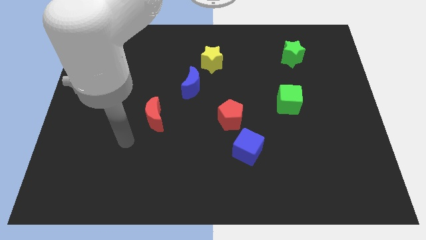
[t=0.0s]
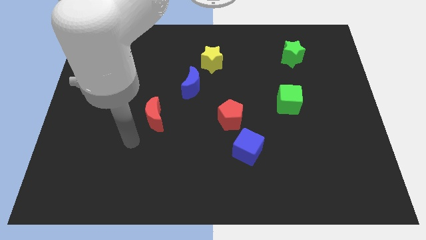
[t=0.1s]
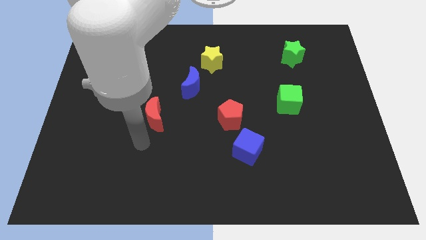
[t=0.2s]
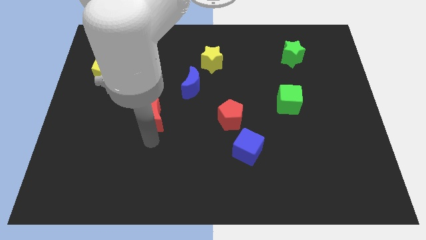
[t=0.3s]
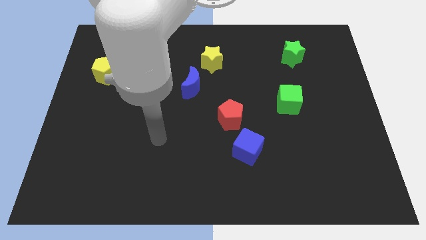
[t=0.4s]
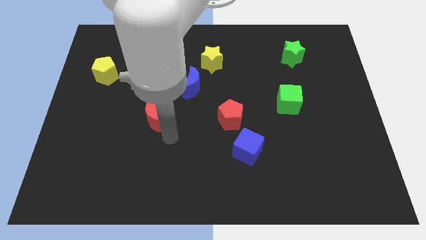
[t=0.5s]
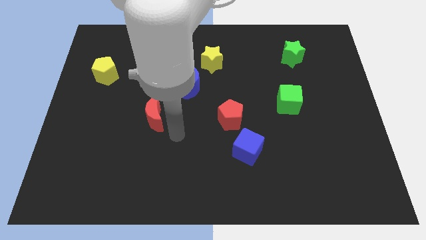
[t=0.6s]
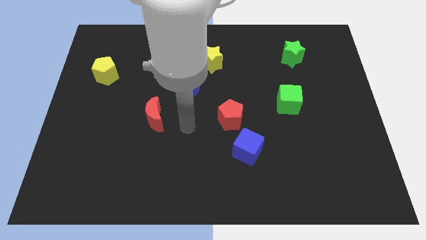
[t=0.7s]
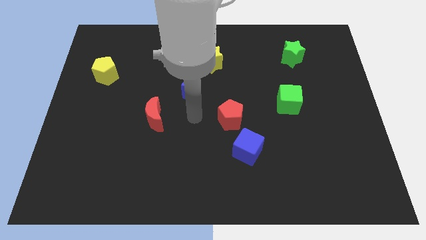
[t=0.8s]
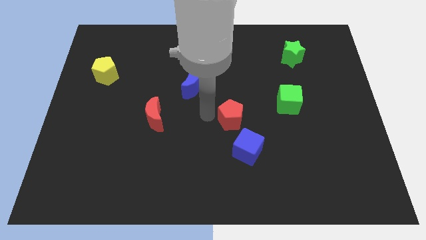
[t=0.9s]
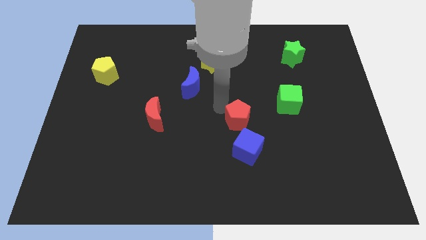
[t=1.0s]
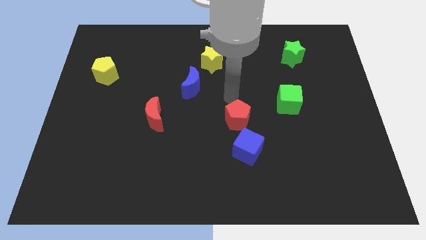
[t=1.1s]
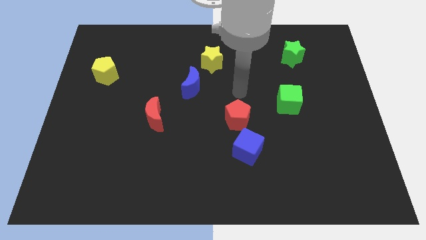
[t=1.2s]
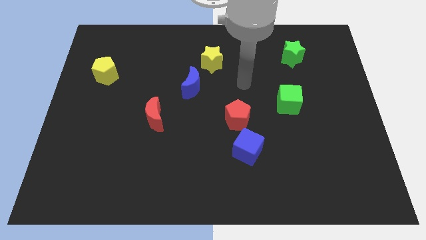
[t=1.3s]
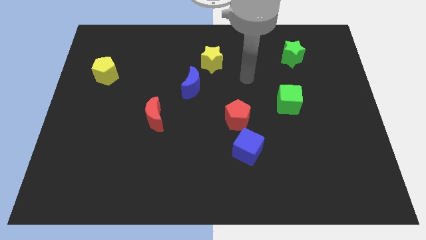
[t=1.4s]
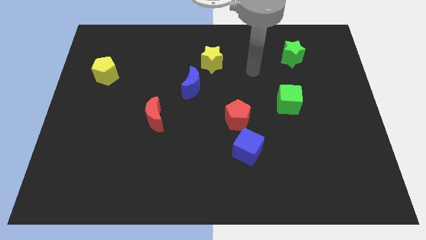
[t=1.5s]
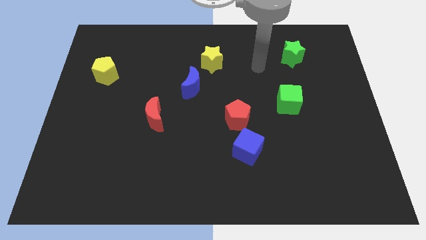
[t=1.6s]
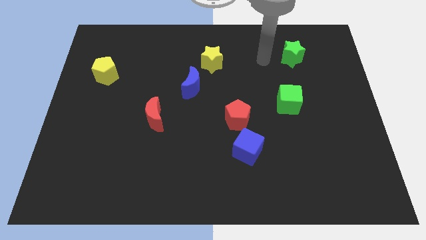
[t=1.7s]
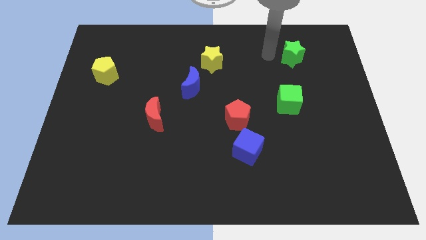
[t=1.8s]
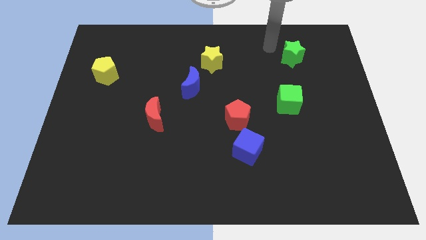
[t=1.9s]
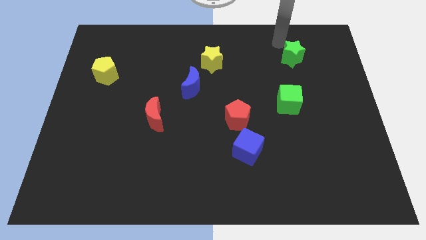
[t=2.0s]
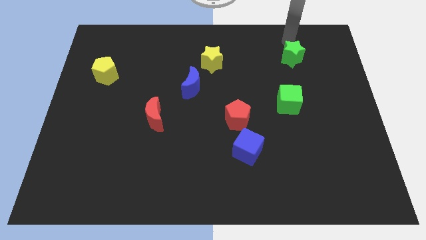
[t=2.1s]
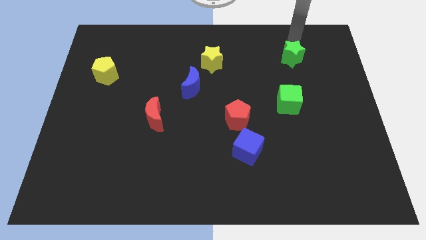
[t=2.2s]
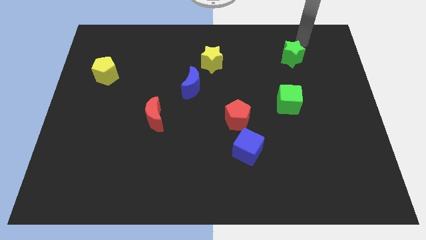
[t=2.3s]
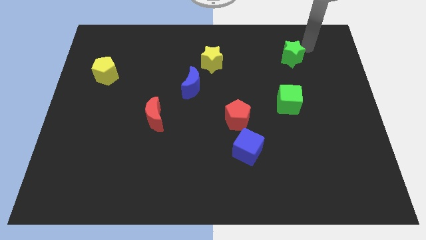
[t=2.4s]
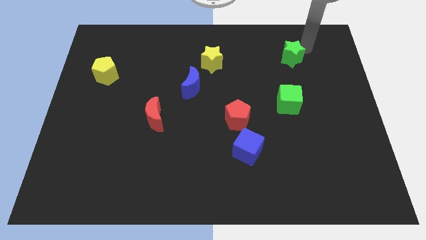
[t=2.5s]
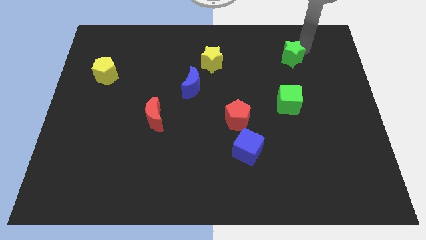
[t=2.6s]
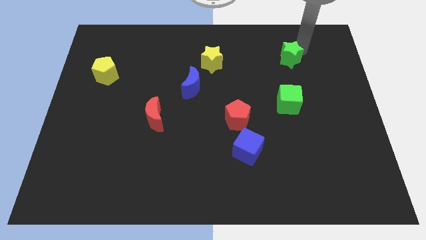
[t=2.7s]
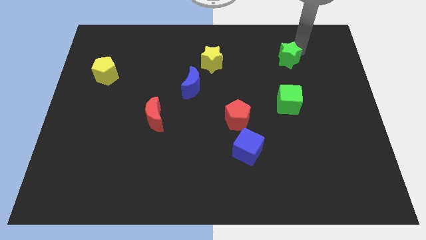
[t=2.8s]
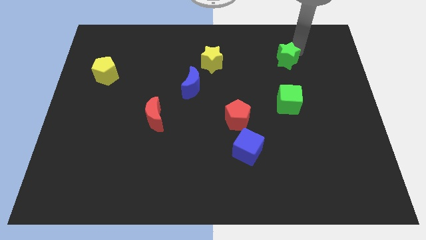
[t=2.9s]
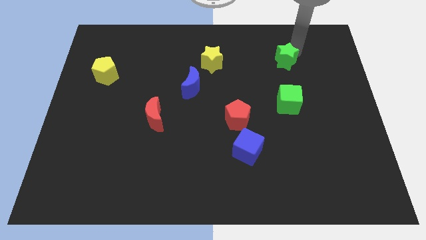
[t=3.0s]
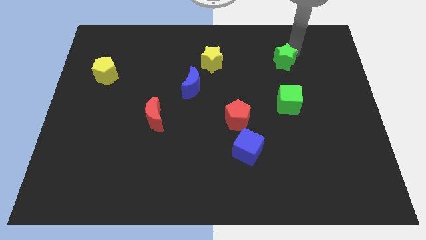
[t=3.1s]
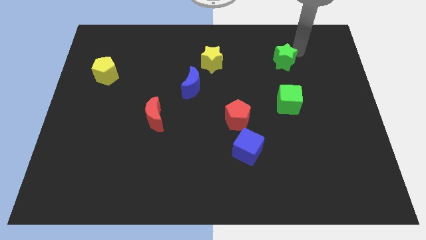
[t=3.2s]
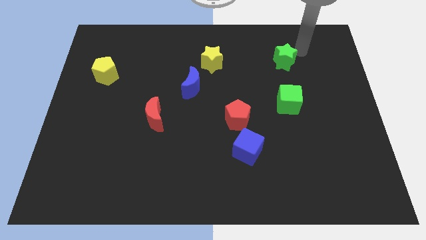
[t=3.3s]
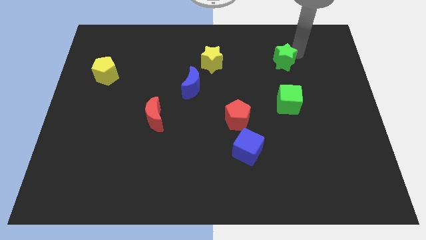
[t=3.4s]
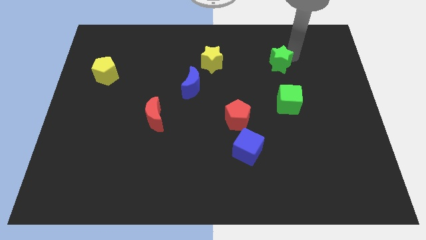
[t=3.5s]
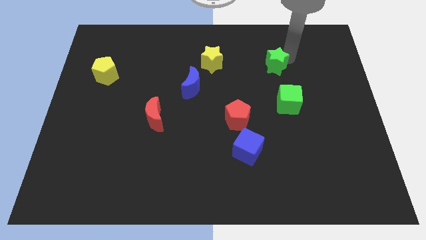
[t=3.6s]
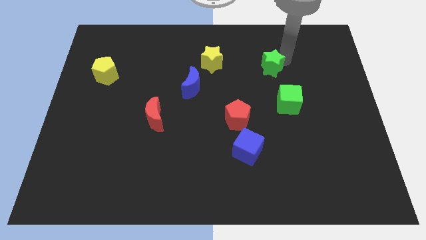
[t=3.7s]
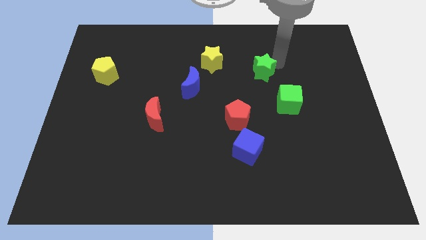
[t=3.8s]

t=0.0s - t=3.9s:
slightly move the green star downwards and to the left diagonally

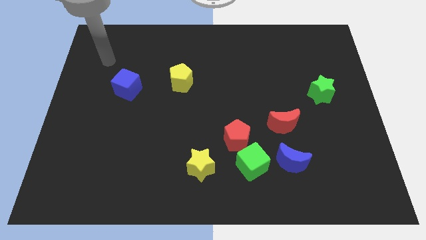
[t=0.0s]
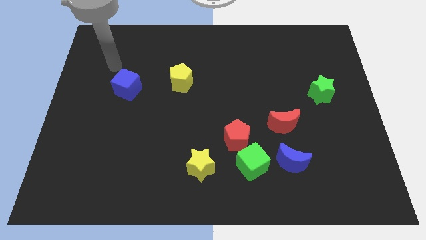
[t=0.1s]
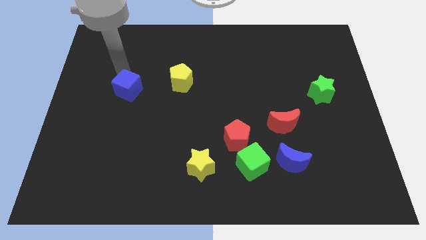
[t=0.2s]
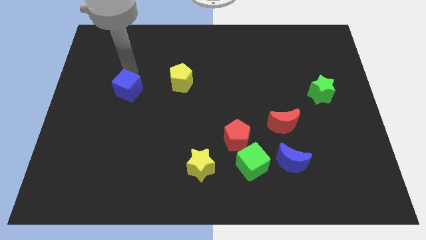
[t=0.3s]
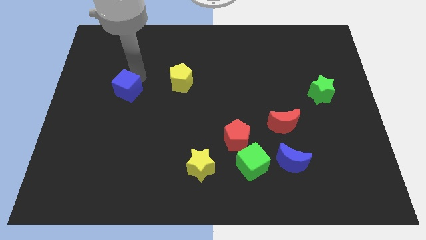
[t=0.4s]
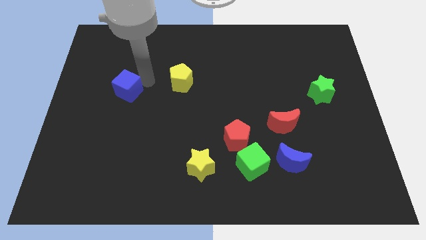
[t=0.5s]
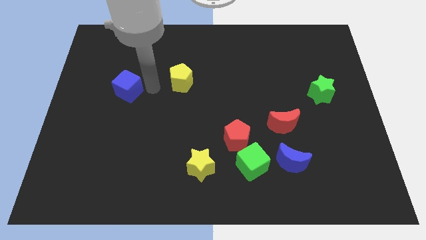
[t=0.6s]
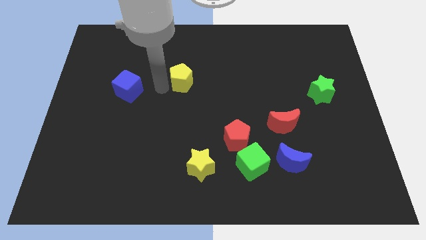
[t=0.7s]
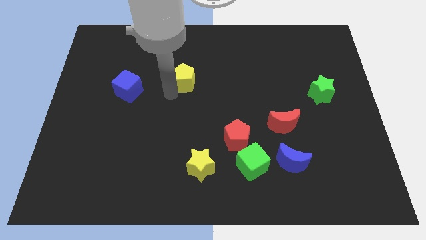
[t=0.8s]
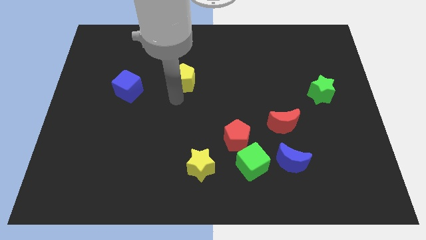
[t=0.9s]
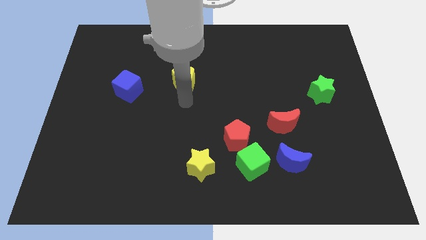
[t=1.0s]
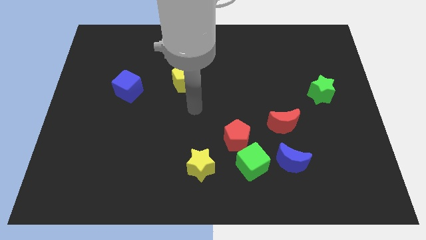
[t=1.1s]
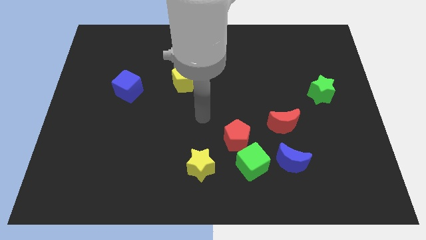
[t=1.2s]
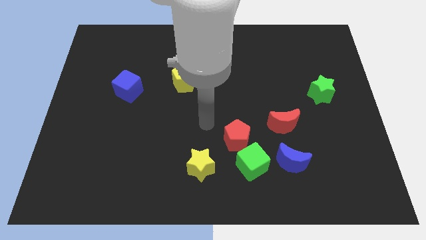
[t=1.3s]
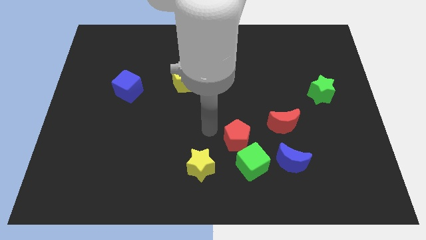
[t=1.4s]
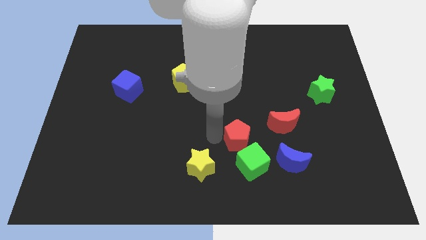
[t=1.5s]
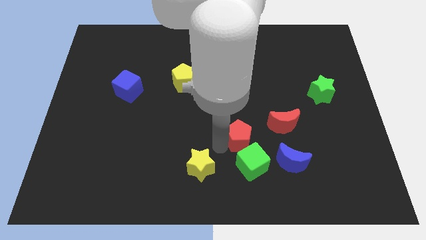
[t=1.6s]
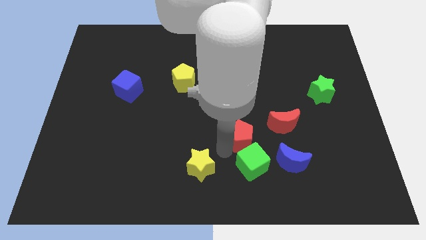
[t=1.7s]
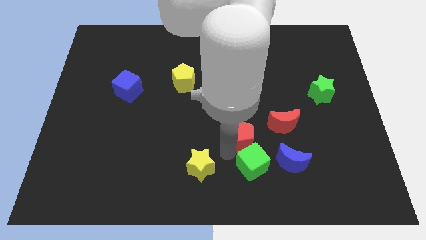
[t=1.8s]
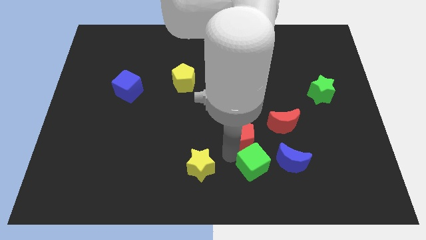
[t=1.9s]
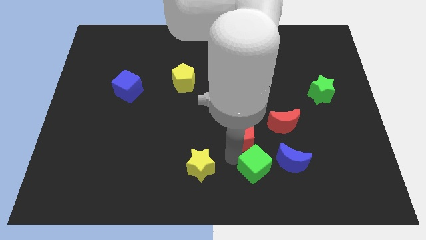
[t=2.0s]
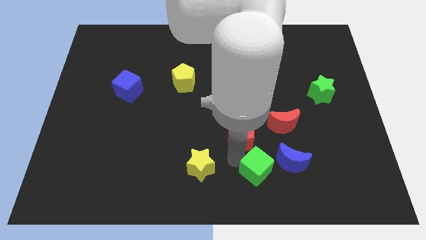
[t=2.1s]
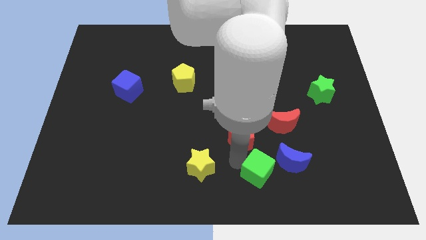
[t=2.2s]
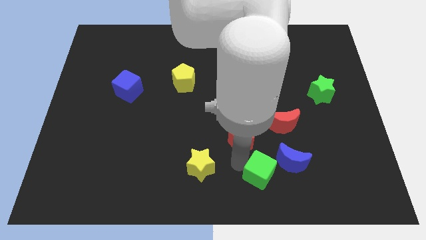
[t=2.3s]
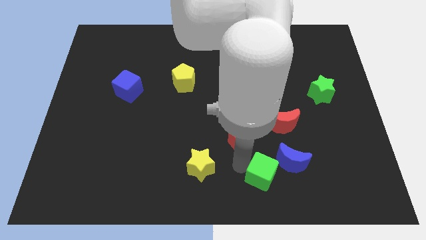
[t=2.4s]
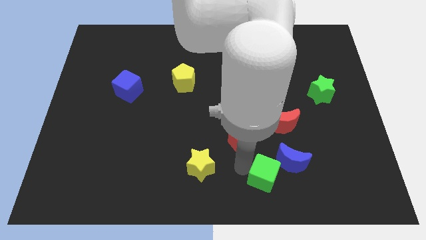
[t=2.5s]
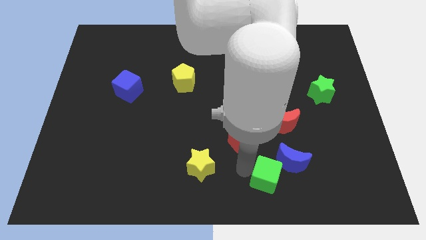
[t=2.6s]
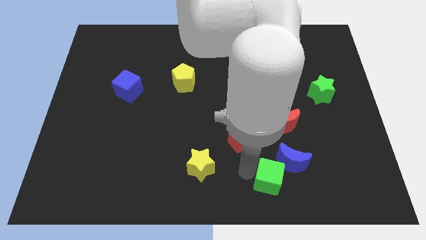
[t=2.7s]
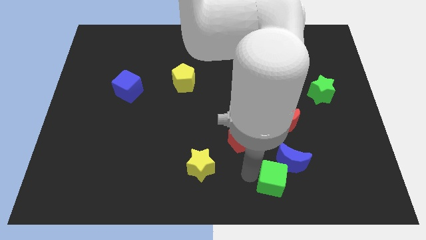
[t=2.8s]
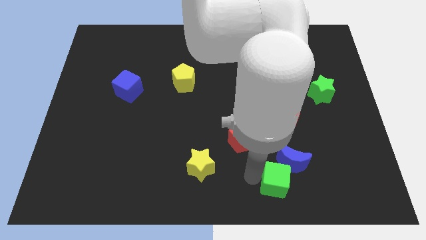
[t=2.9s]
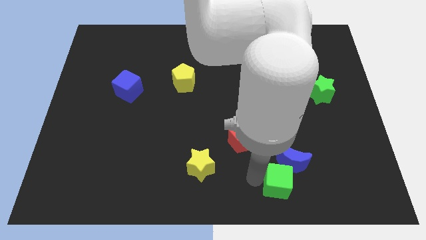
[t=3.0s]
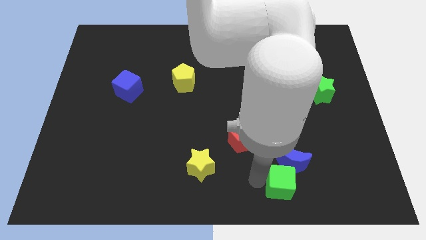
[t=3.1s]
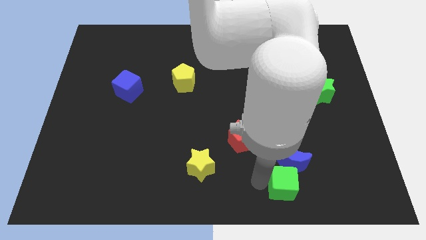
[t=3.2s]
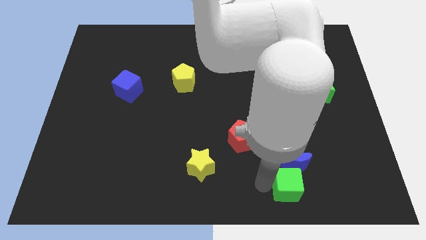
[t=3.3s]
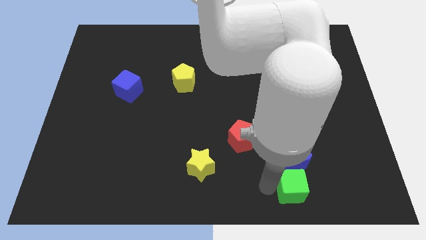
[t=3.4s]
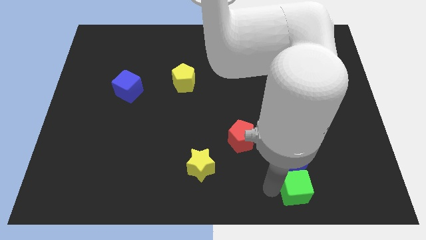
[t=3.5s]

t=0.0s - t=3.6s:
slide the green cube a little bit to the right

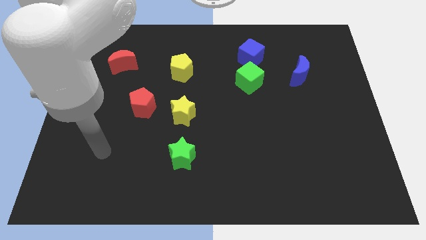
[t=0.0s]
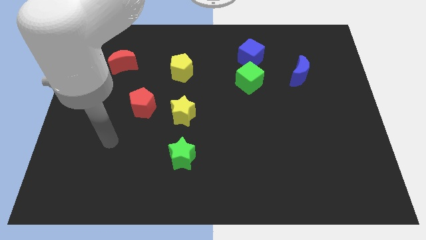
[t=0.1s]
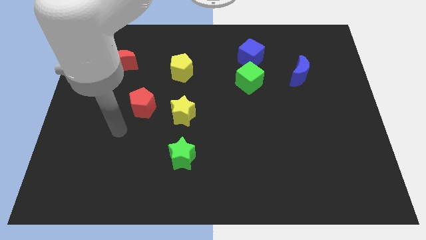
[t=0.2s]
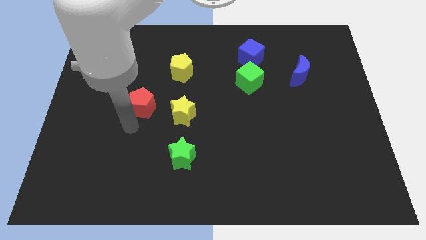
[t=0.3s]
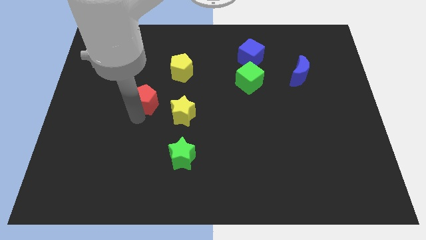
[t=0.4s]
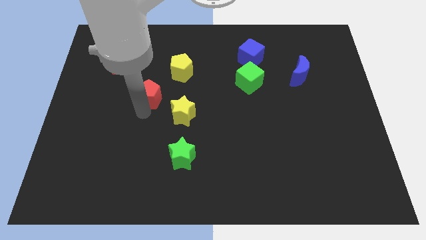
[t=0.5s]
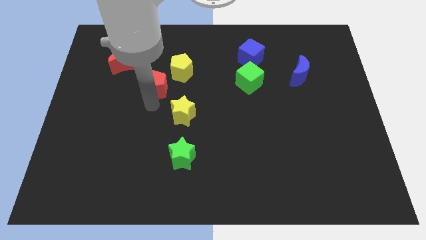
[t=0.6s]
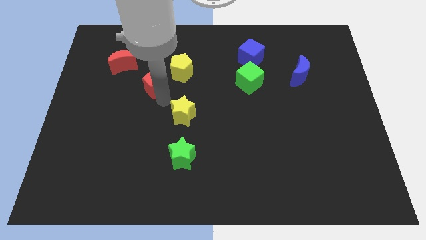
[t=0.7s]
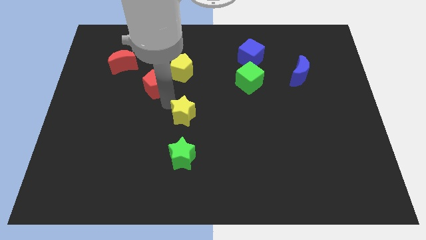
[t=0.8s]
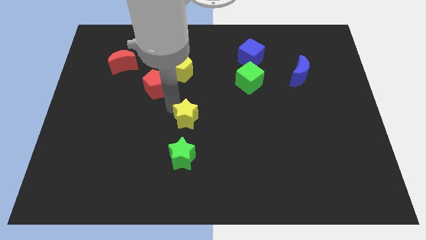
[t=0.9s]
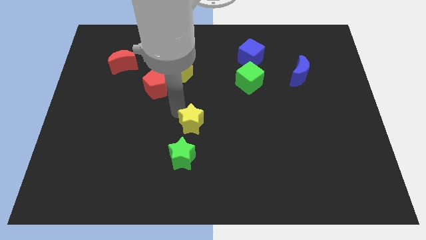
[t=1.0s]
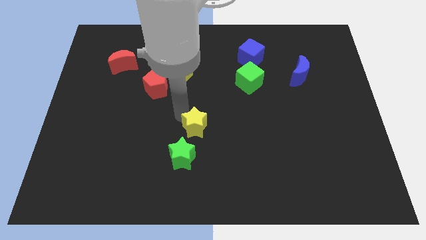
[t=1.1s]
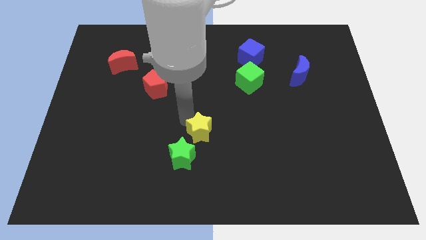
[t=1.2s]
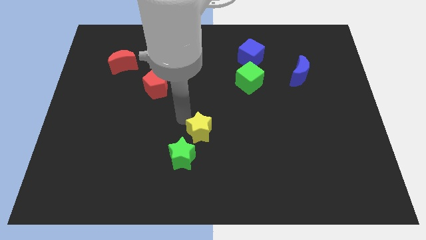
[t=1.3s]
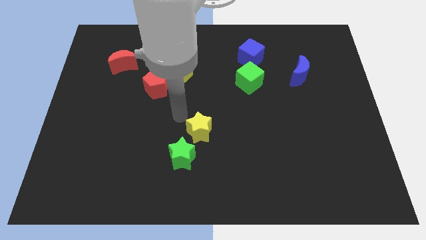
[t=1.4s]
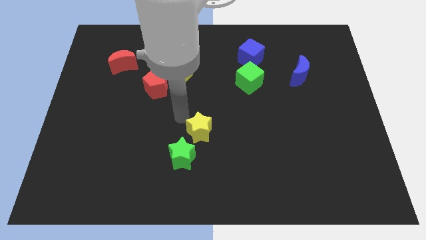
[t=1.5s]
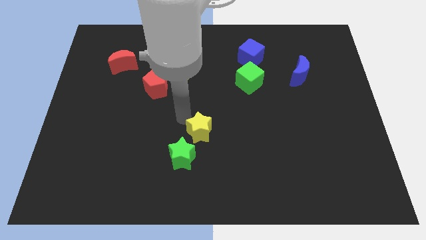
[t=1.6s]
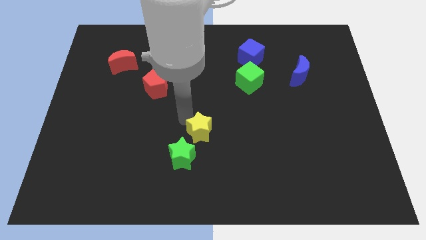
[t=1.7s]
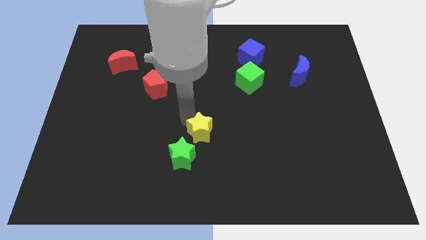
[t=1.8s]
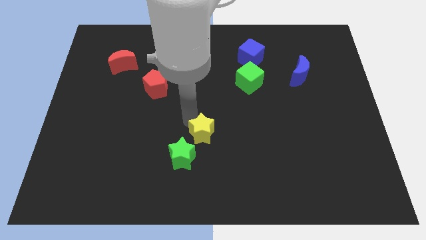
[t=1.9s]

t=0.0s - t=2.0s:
slightly move the yellow star down and right diagonally
